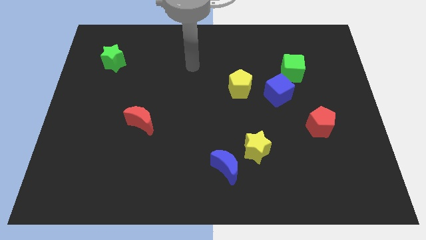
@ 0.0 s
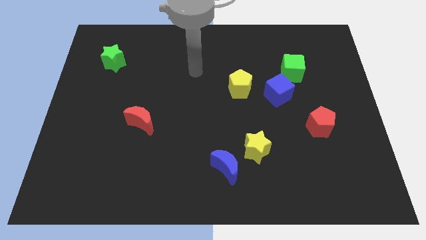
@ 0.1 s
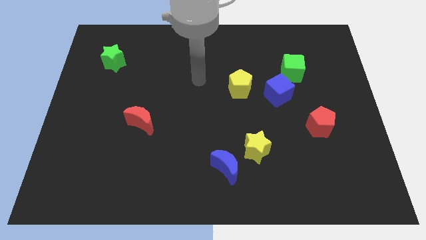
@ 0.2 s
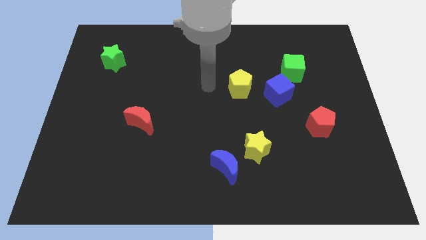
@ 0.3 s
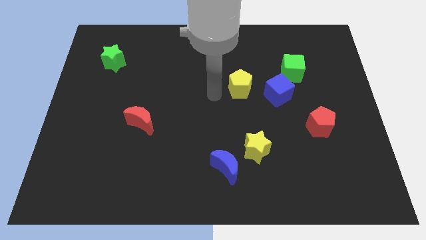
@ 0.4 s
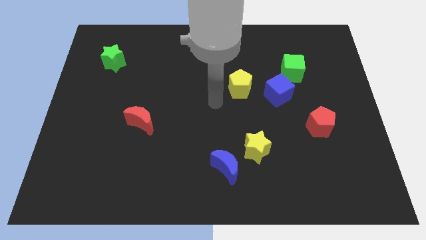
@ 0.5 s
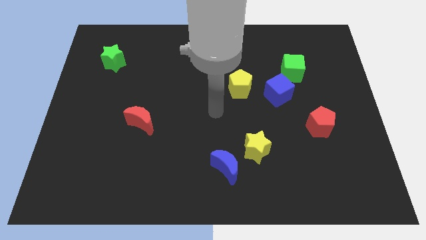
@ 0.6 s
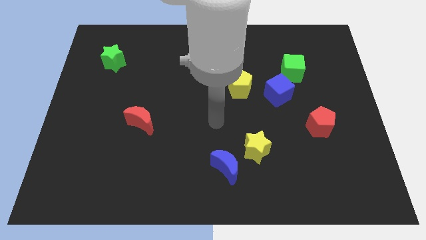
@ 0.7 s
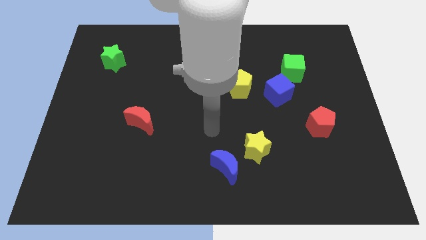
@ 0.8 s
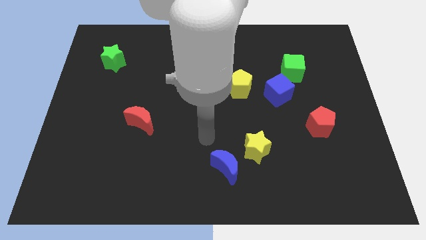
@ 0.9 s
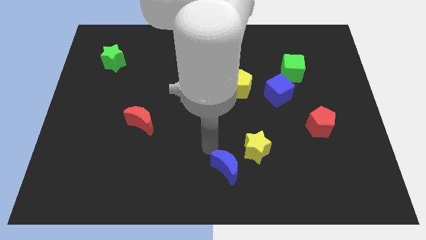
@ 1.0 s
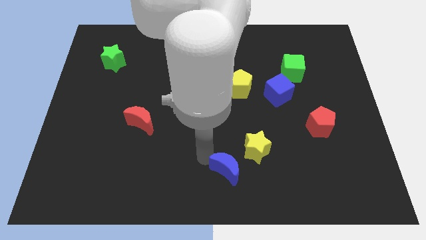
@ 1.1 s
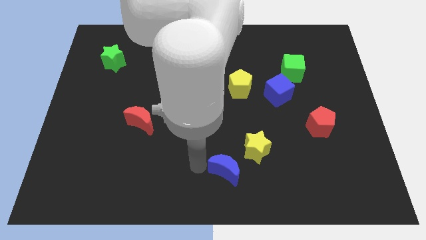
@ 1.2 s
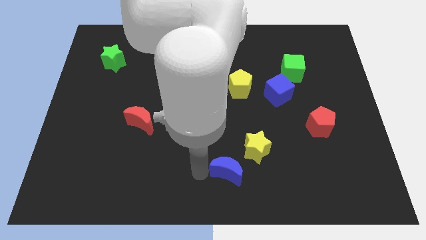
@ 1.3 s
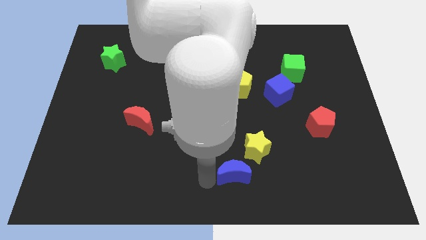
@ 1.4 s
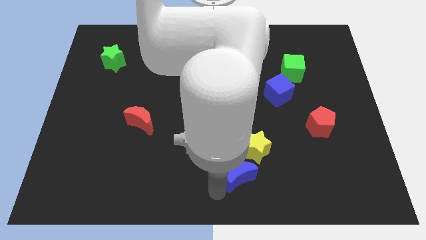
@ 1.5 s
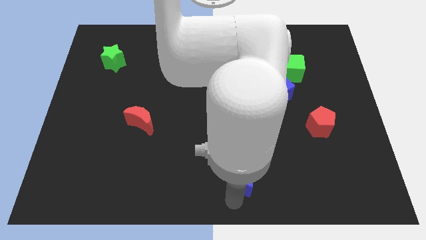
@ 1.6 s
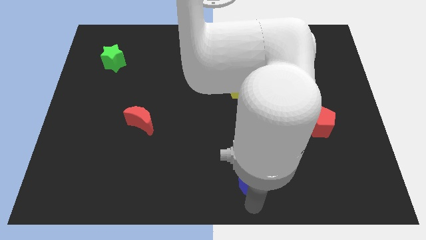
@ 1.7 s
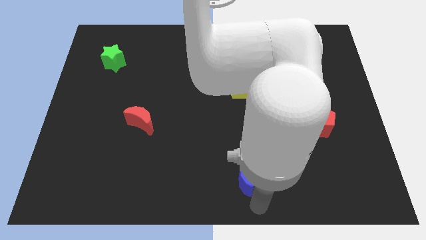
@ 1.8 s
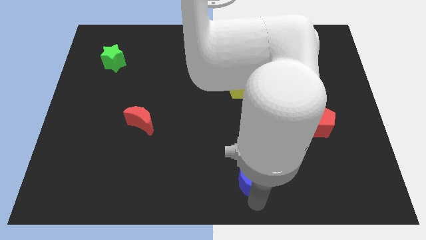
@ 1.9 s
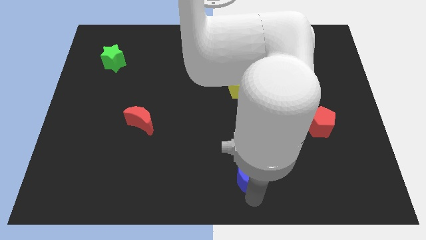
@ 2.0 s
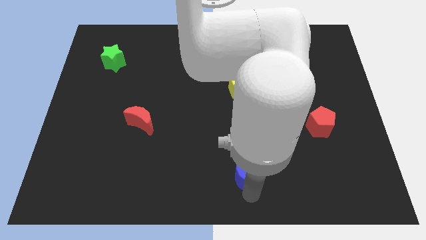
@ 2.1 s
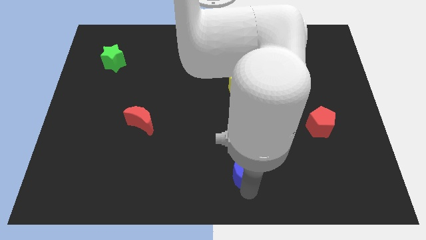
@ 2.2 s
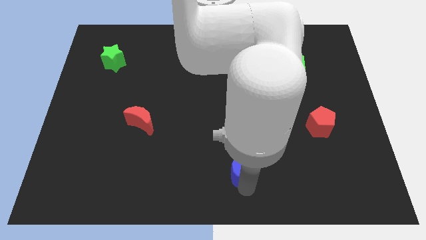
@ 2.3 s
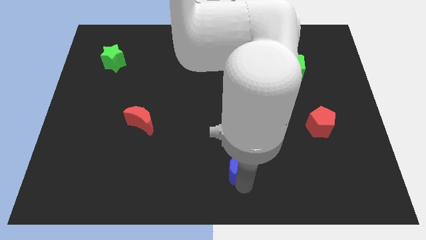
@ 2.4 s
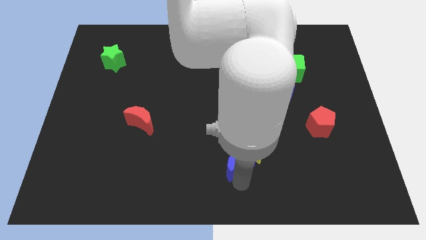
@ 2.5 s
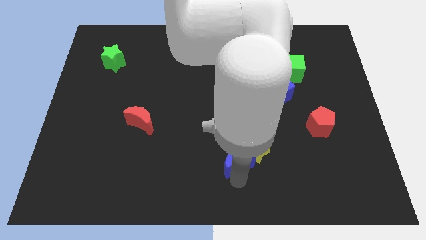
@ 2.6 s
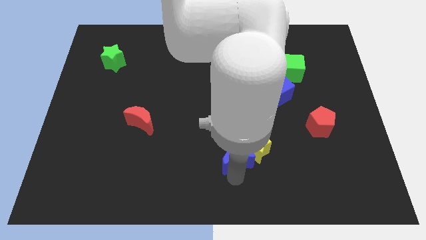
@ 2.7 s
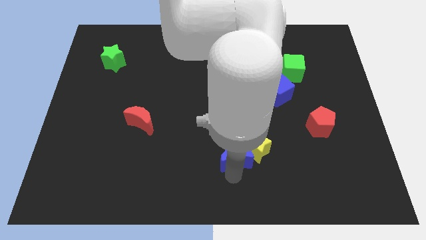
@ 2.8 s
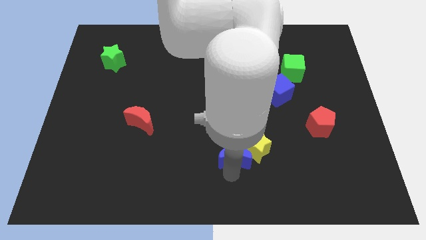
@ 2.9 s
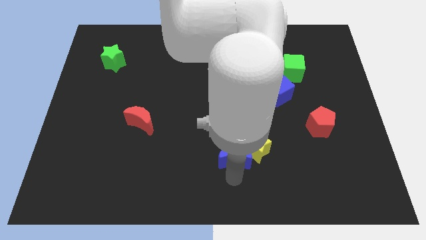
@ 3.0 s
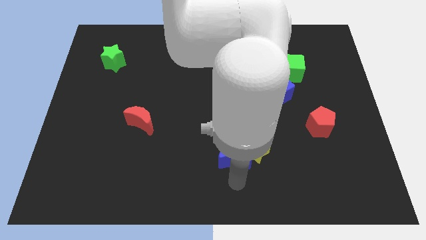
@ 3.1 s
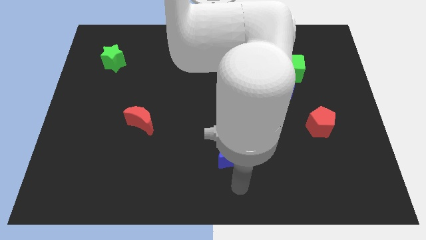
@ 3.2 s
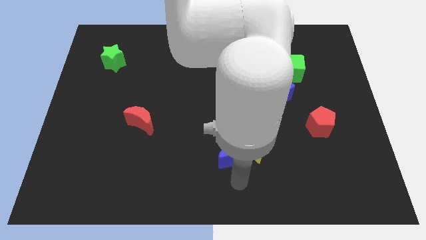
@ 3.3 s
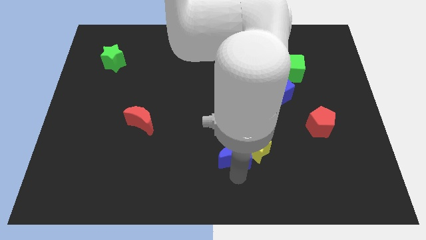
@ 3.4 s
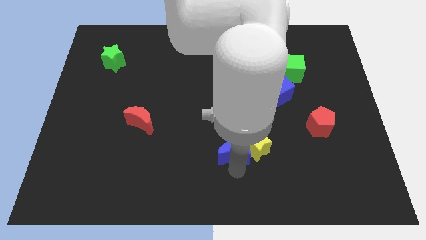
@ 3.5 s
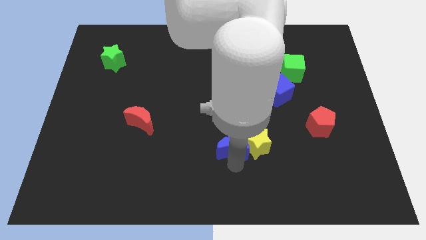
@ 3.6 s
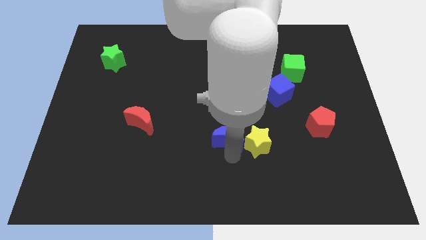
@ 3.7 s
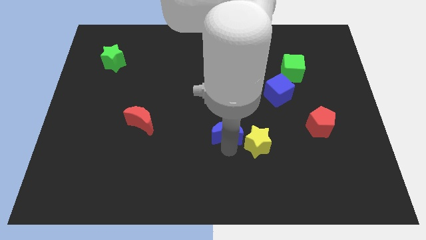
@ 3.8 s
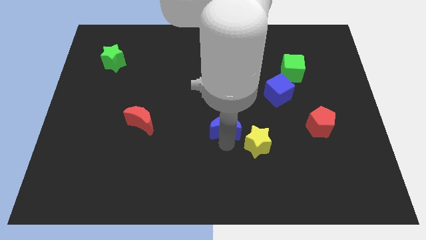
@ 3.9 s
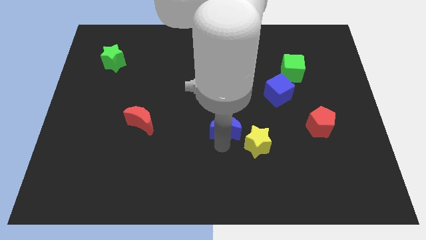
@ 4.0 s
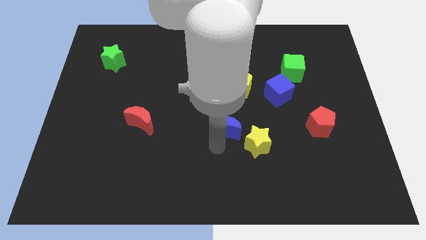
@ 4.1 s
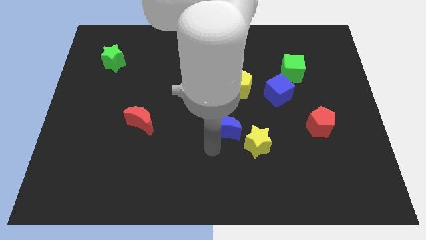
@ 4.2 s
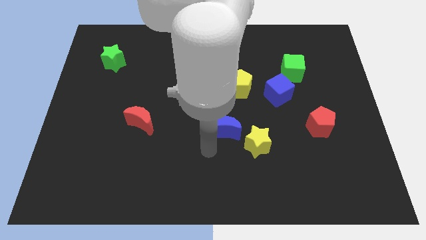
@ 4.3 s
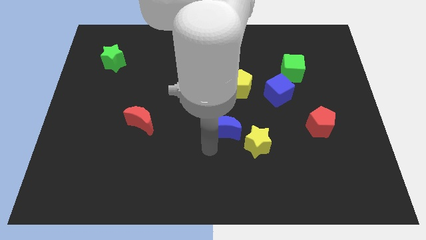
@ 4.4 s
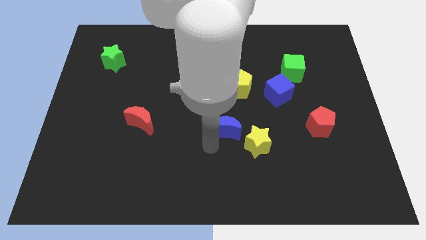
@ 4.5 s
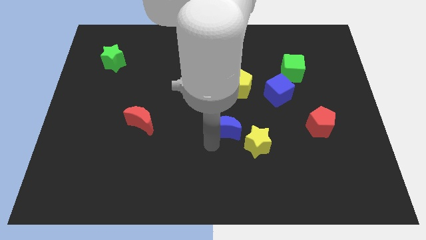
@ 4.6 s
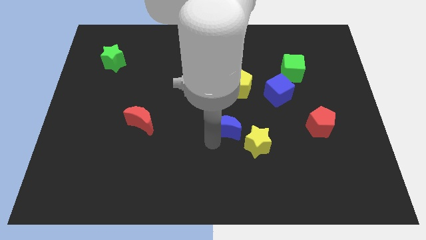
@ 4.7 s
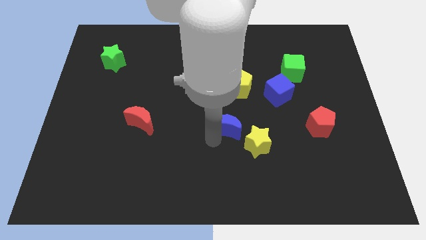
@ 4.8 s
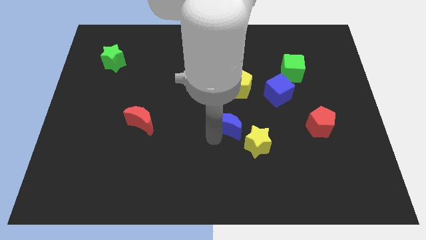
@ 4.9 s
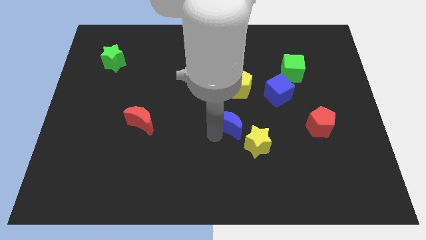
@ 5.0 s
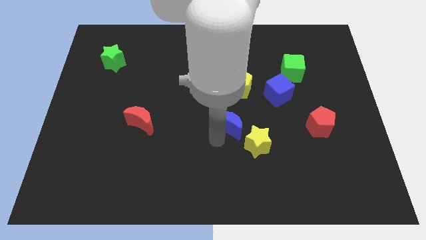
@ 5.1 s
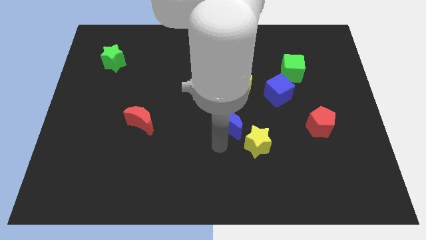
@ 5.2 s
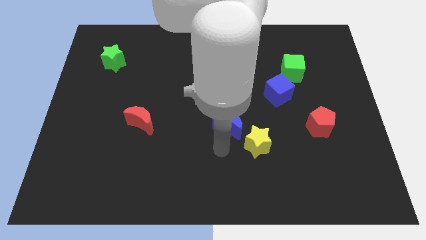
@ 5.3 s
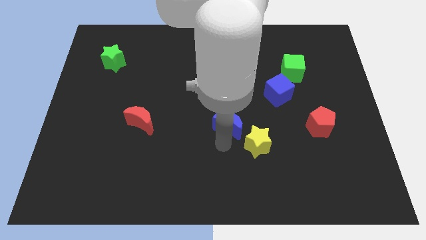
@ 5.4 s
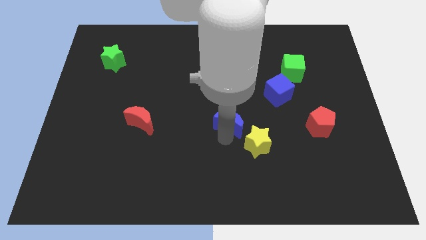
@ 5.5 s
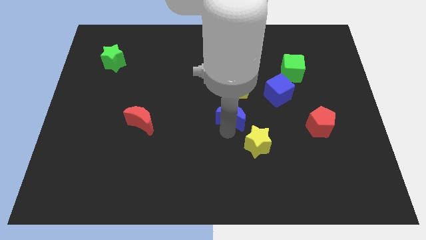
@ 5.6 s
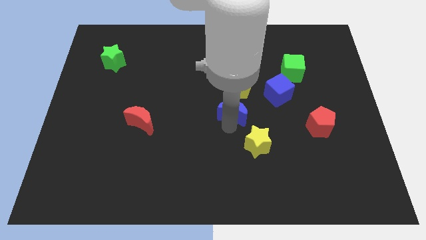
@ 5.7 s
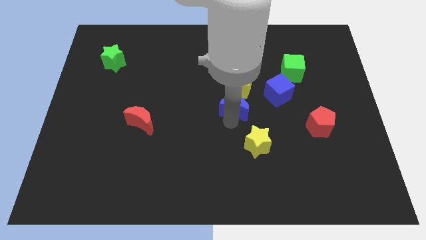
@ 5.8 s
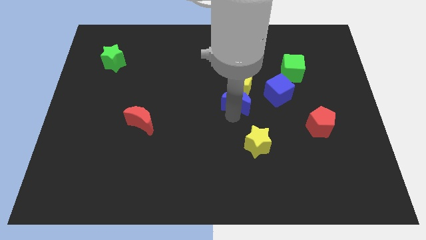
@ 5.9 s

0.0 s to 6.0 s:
push the blue moon towards the yellow pentagon

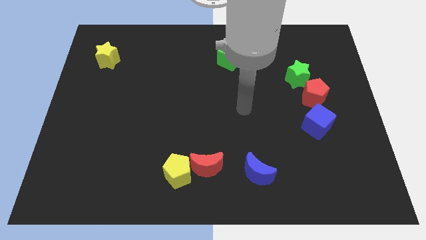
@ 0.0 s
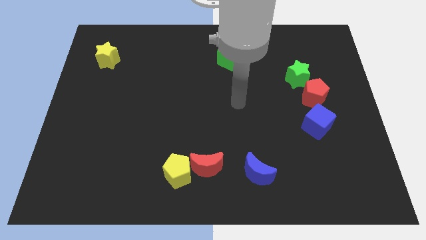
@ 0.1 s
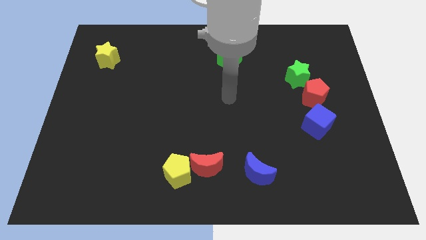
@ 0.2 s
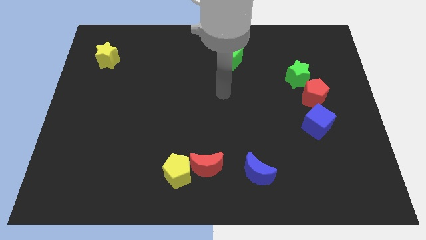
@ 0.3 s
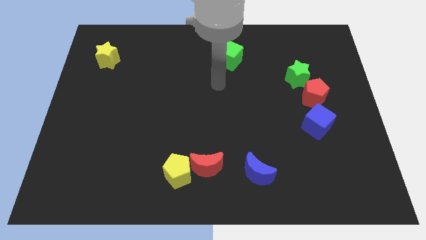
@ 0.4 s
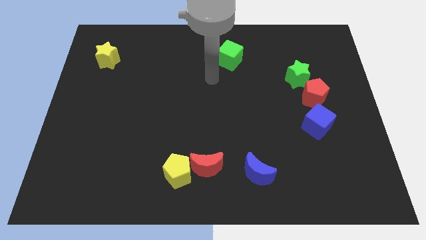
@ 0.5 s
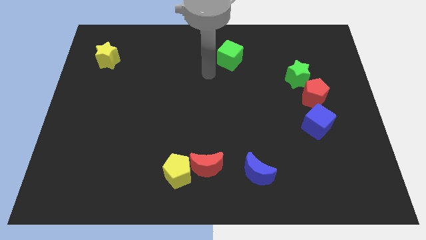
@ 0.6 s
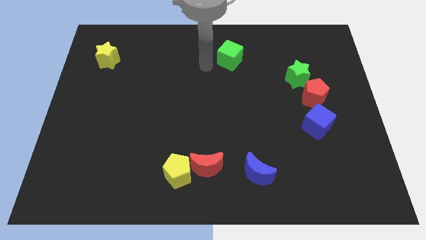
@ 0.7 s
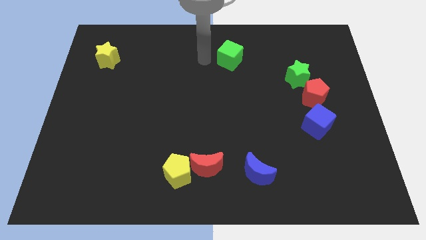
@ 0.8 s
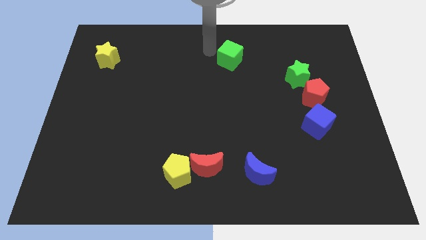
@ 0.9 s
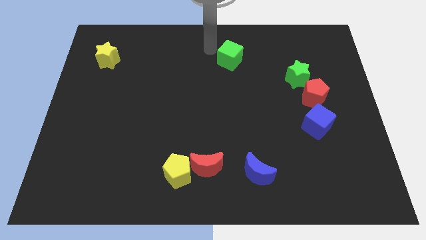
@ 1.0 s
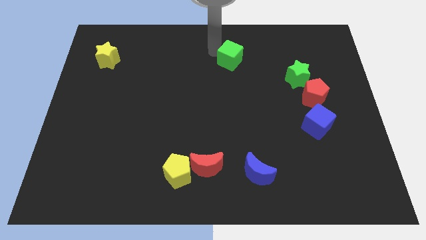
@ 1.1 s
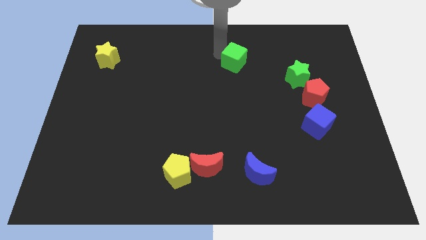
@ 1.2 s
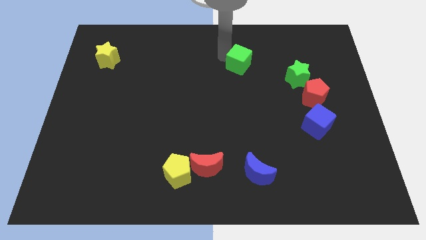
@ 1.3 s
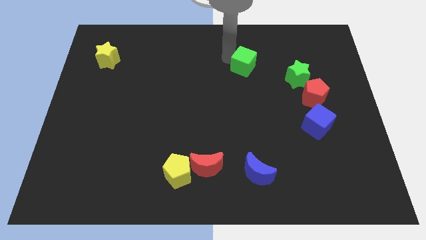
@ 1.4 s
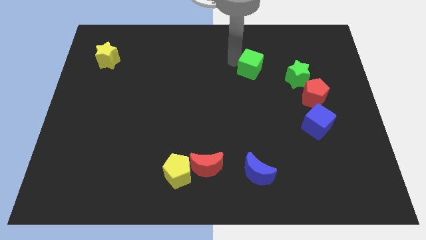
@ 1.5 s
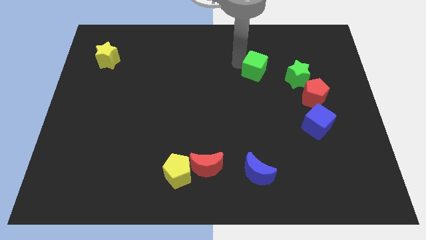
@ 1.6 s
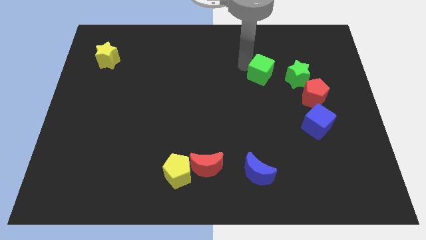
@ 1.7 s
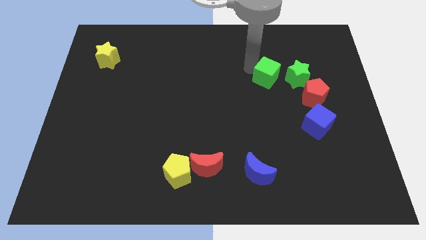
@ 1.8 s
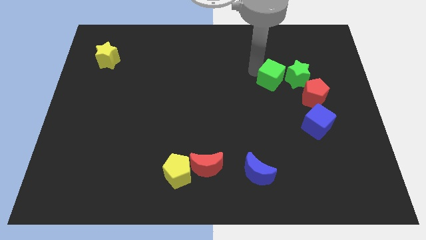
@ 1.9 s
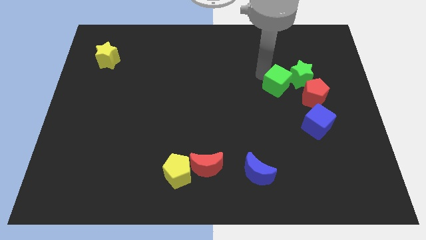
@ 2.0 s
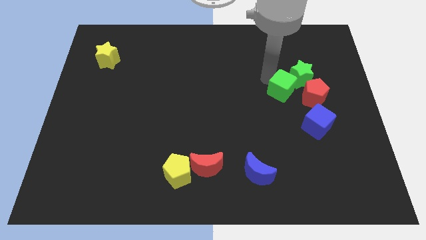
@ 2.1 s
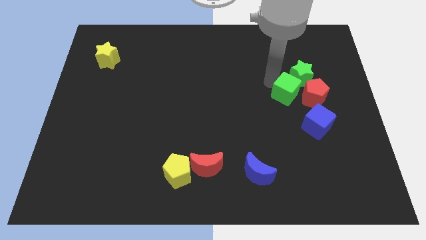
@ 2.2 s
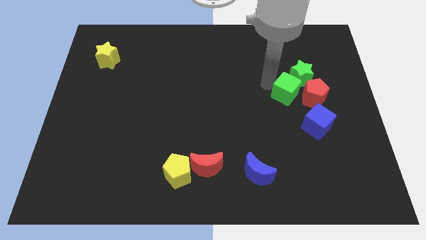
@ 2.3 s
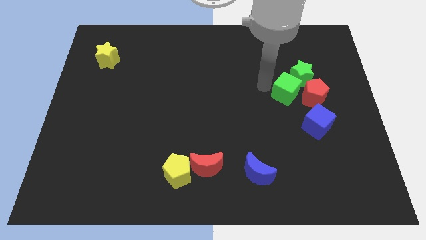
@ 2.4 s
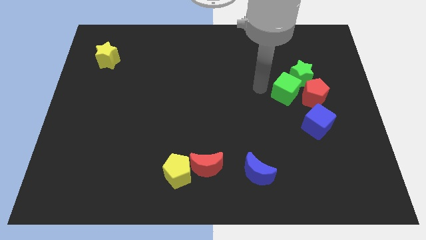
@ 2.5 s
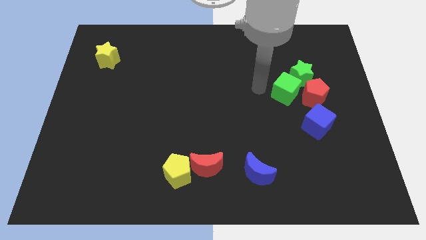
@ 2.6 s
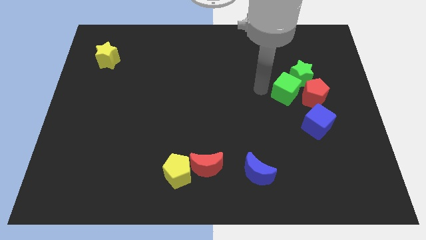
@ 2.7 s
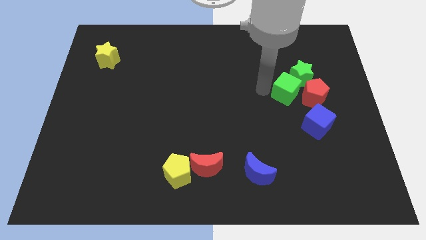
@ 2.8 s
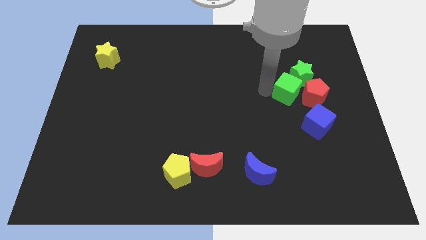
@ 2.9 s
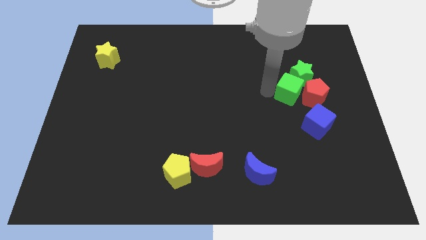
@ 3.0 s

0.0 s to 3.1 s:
slide the green cube to the red pentagon
